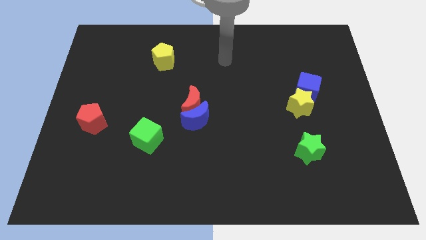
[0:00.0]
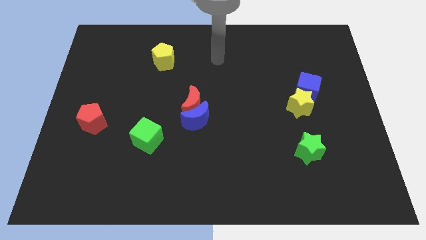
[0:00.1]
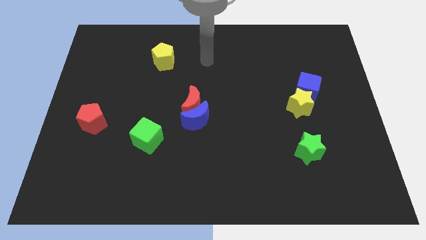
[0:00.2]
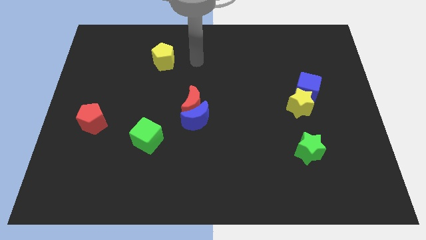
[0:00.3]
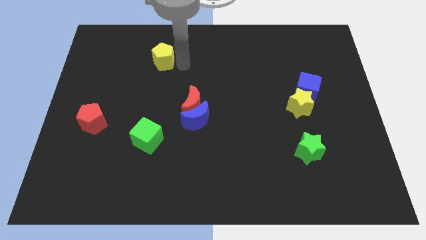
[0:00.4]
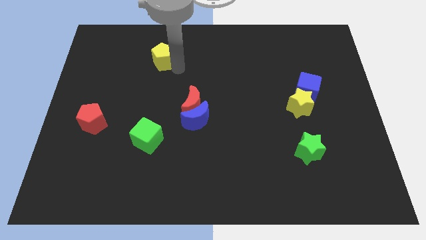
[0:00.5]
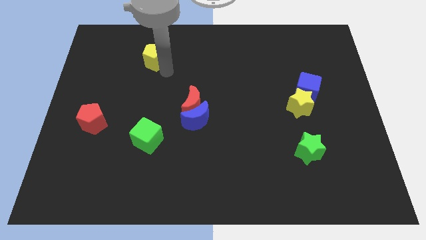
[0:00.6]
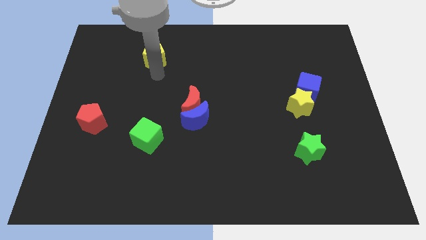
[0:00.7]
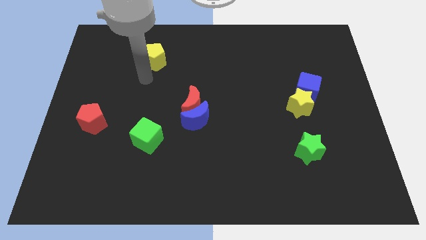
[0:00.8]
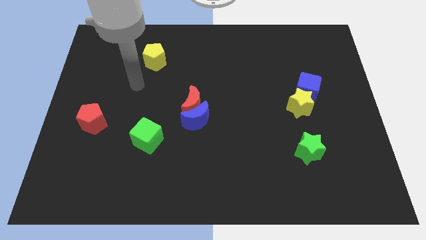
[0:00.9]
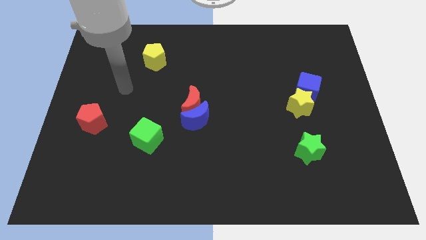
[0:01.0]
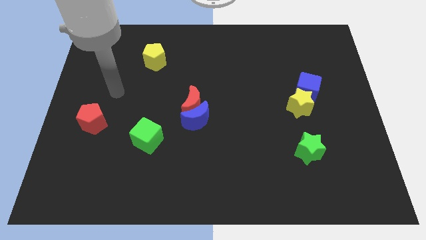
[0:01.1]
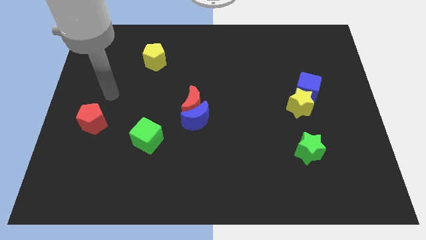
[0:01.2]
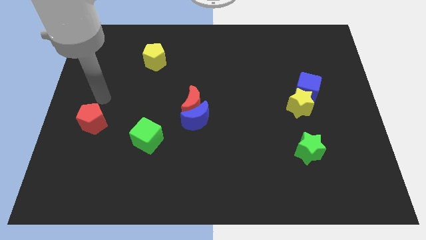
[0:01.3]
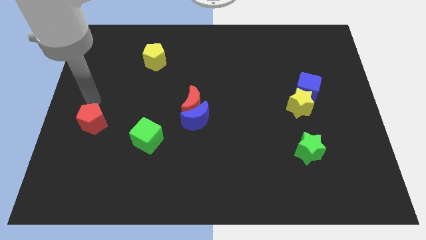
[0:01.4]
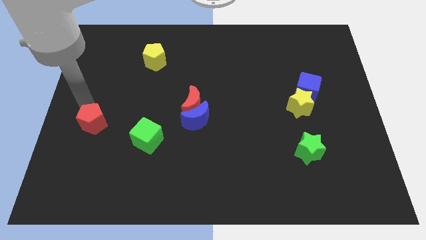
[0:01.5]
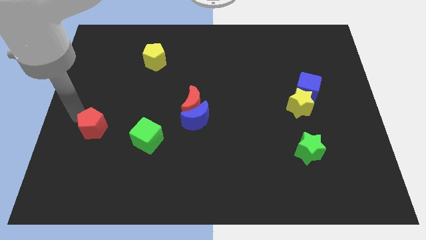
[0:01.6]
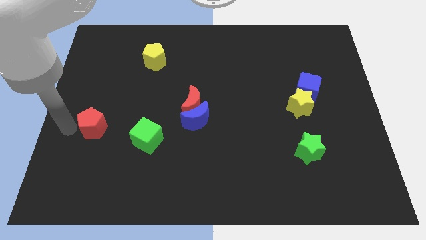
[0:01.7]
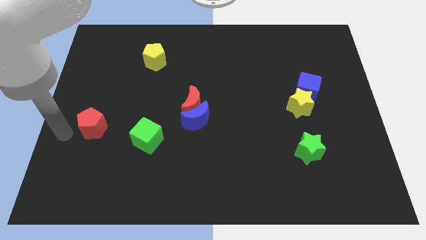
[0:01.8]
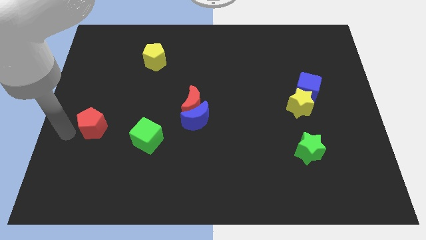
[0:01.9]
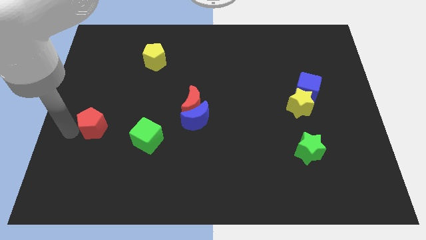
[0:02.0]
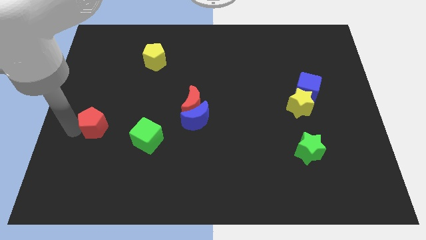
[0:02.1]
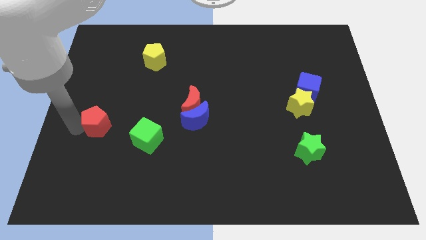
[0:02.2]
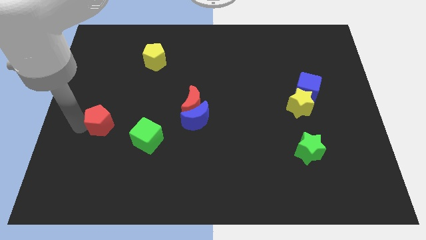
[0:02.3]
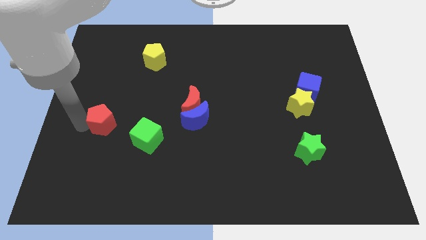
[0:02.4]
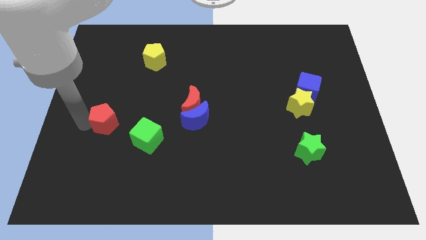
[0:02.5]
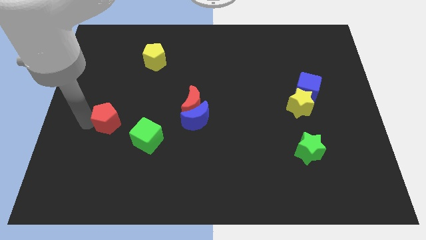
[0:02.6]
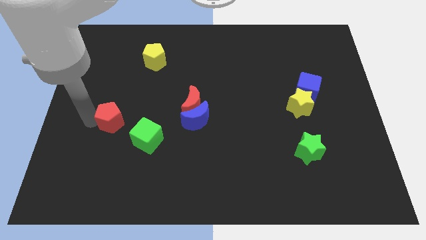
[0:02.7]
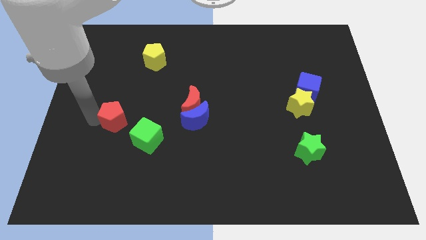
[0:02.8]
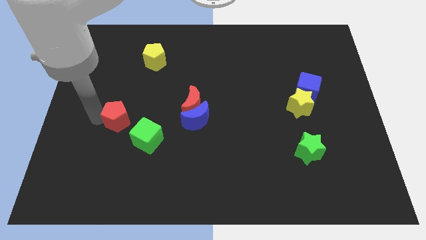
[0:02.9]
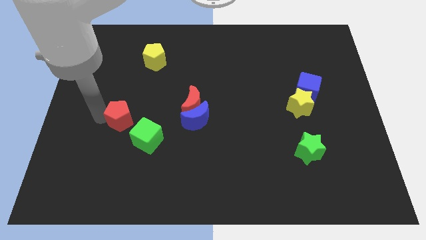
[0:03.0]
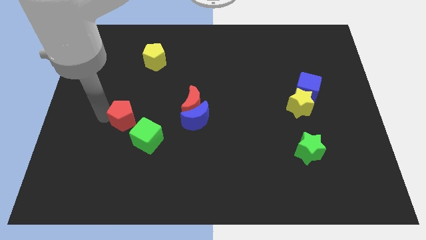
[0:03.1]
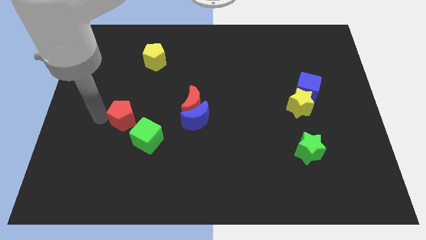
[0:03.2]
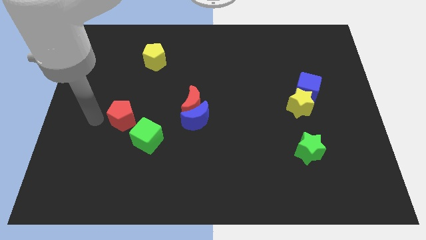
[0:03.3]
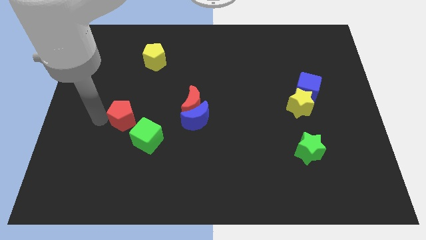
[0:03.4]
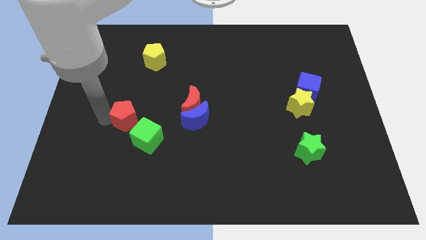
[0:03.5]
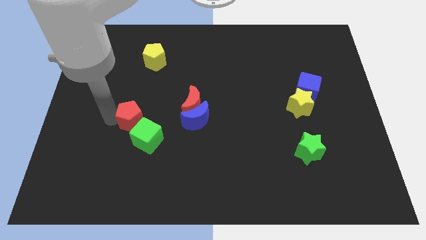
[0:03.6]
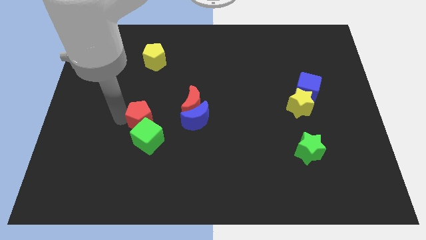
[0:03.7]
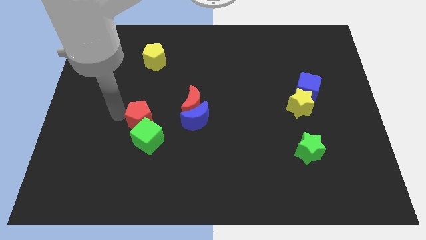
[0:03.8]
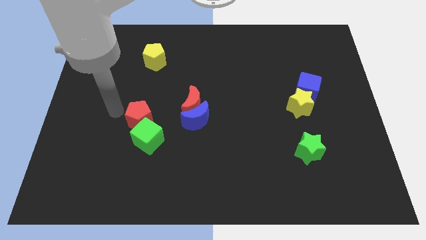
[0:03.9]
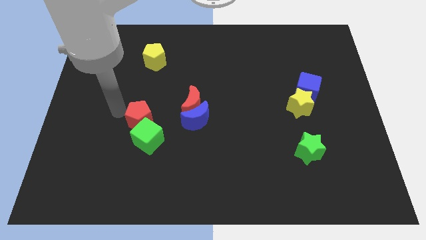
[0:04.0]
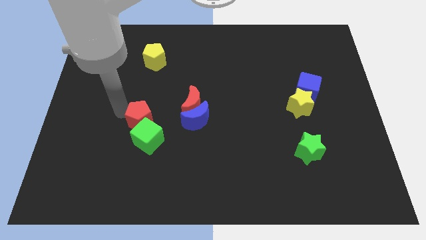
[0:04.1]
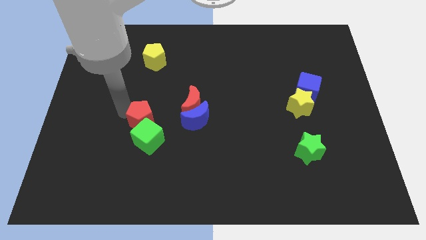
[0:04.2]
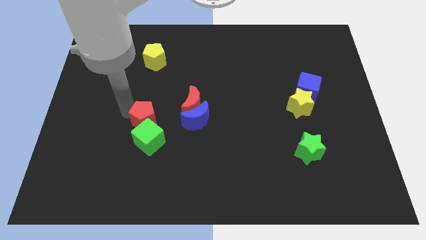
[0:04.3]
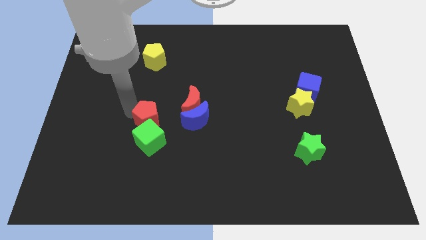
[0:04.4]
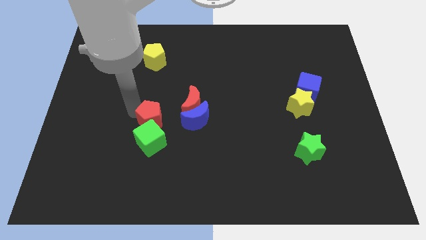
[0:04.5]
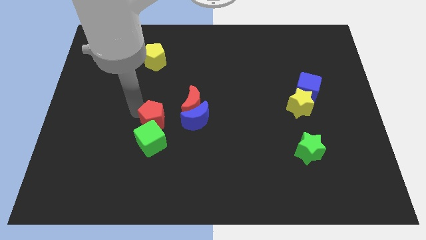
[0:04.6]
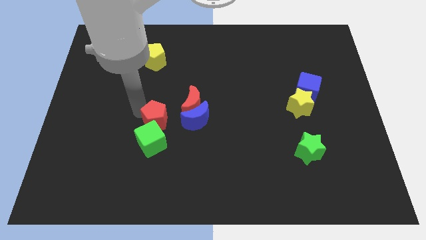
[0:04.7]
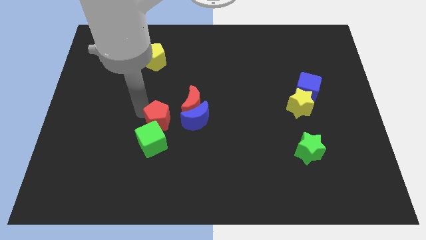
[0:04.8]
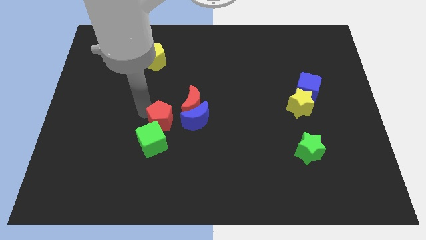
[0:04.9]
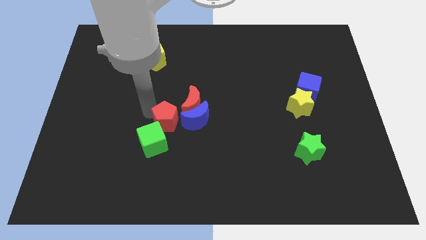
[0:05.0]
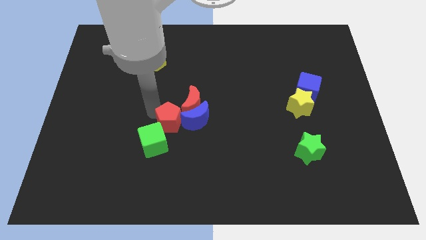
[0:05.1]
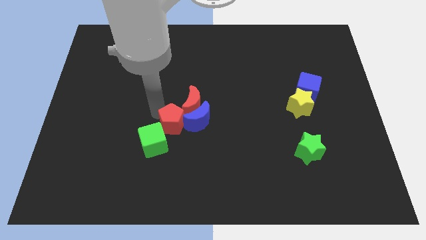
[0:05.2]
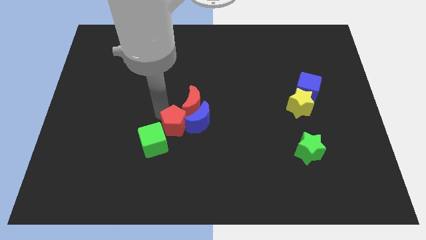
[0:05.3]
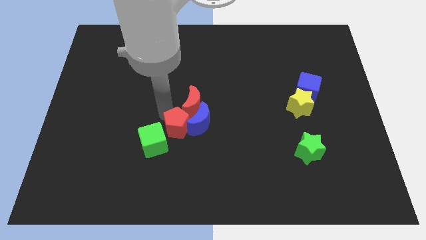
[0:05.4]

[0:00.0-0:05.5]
push the red pentagon right of the green cube

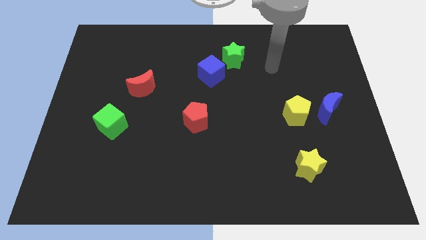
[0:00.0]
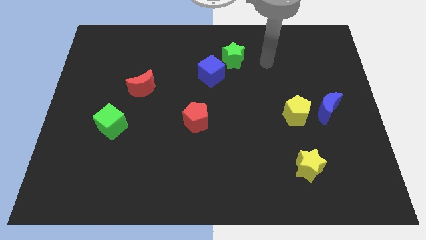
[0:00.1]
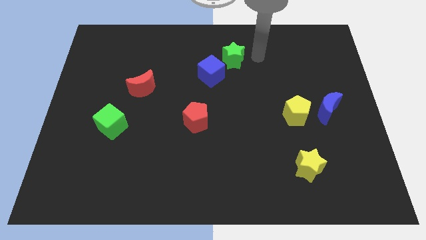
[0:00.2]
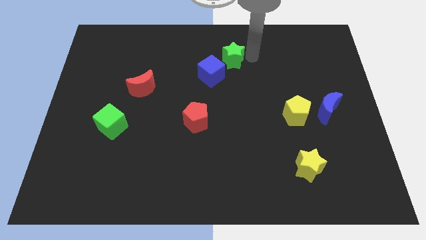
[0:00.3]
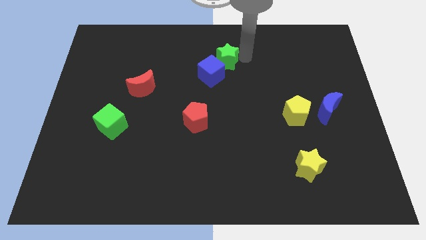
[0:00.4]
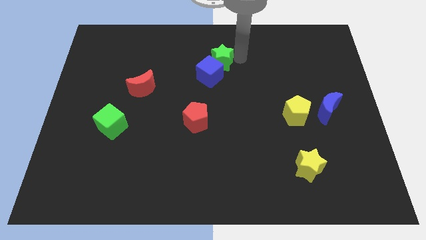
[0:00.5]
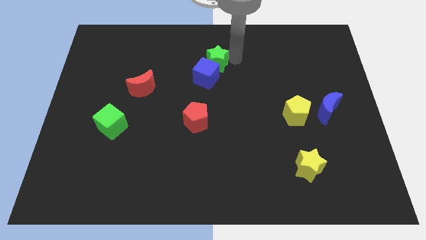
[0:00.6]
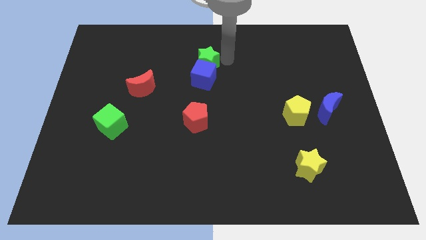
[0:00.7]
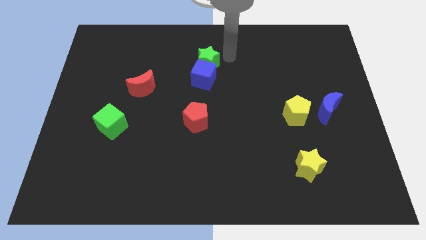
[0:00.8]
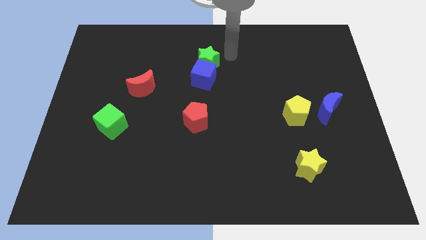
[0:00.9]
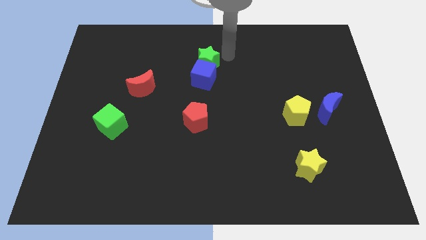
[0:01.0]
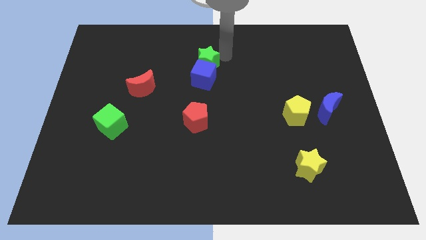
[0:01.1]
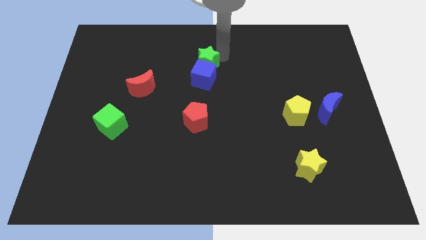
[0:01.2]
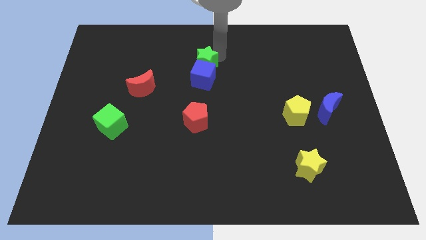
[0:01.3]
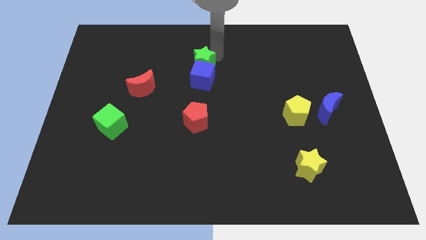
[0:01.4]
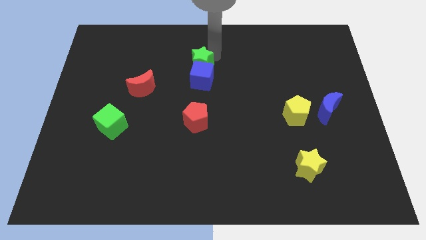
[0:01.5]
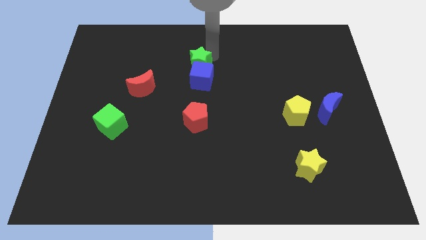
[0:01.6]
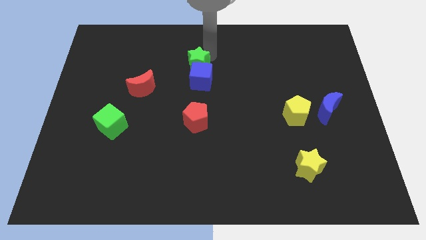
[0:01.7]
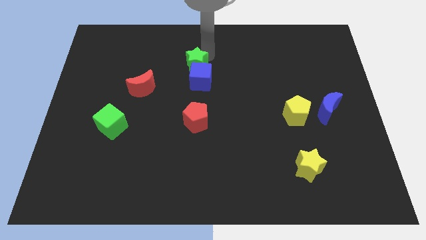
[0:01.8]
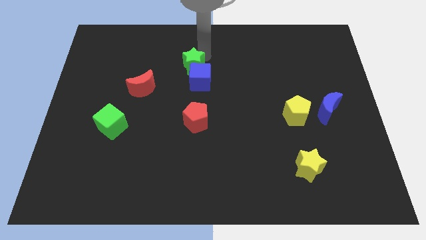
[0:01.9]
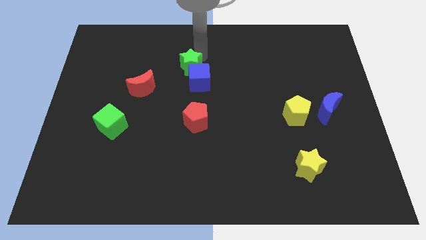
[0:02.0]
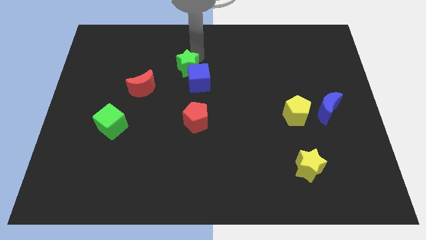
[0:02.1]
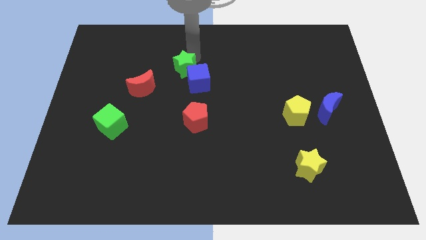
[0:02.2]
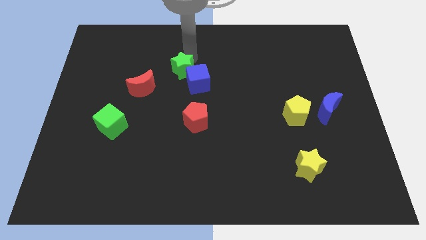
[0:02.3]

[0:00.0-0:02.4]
put the green star just left of the blue cube
